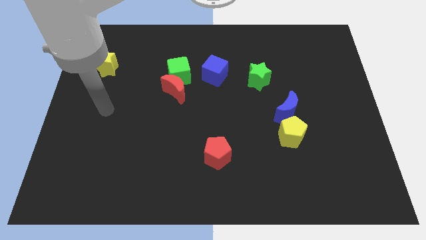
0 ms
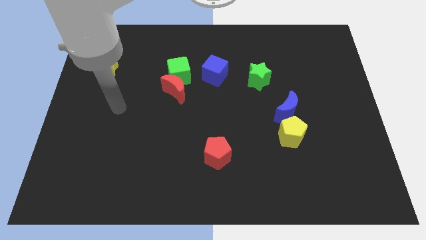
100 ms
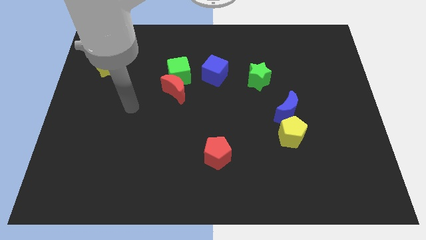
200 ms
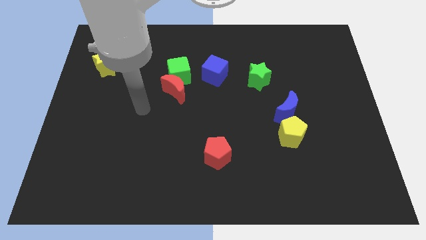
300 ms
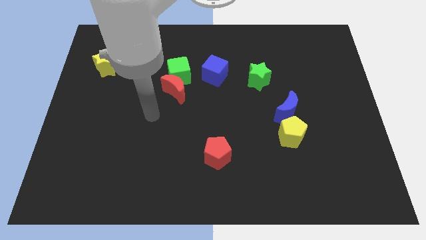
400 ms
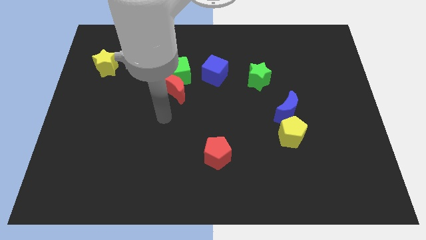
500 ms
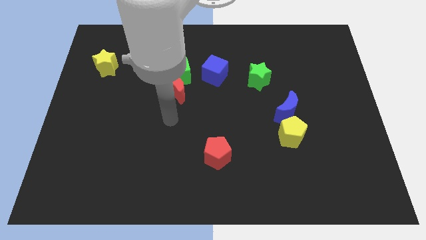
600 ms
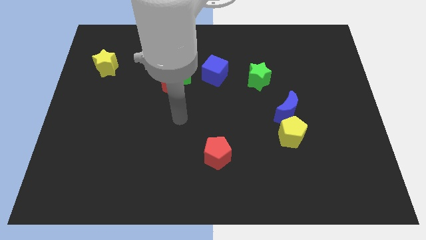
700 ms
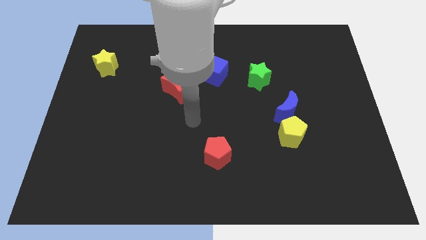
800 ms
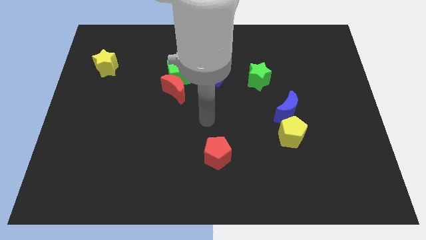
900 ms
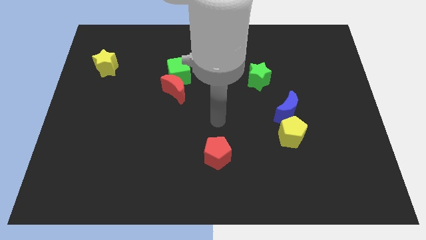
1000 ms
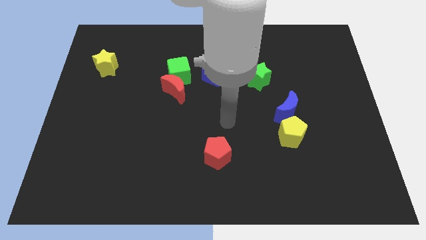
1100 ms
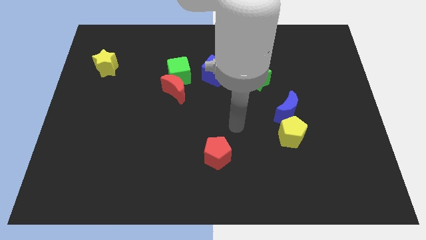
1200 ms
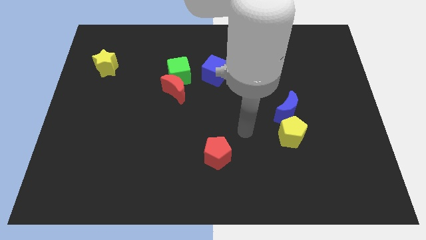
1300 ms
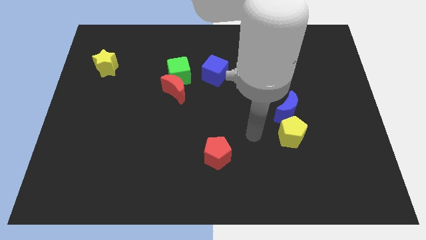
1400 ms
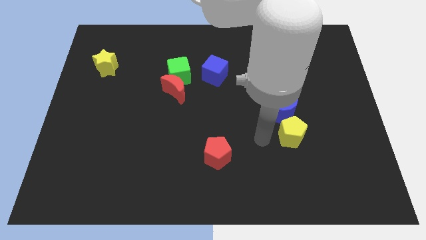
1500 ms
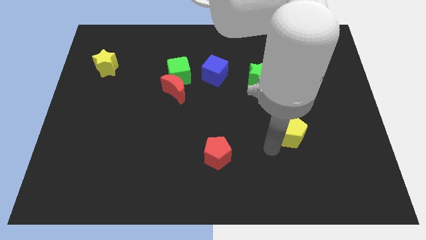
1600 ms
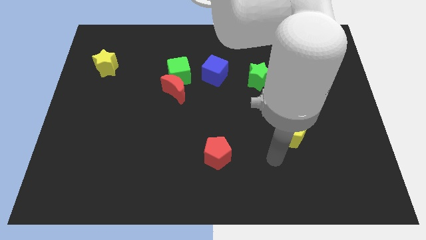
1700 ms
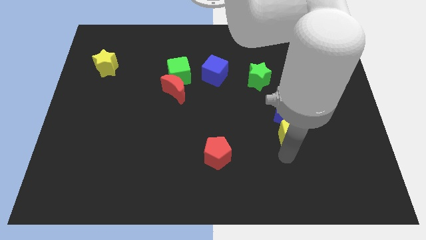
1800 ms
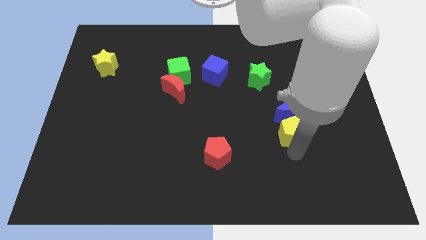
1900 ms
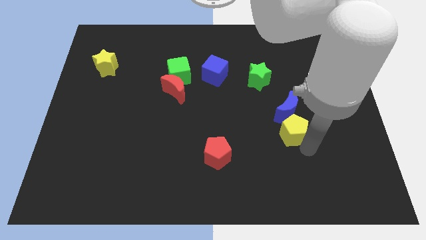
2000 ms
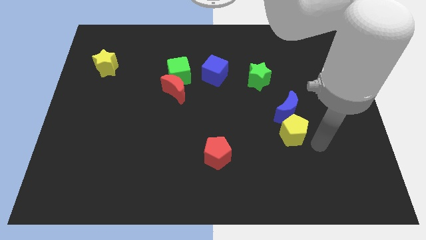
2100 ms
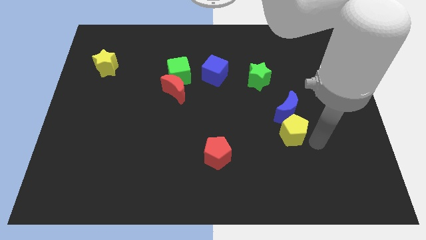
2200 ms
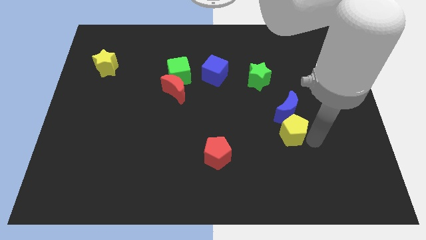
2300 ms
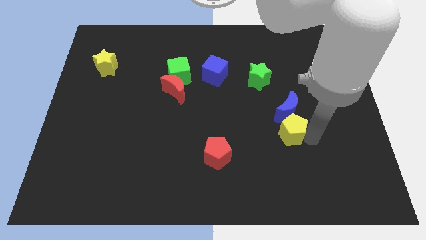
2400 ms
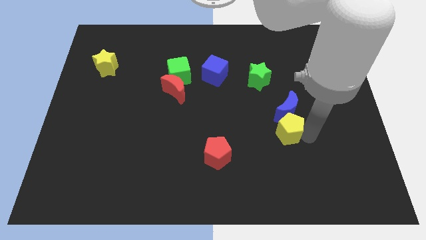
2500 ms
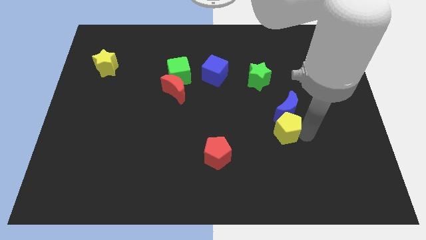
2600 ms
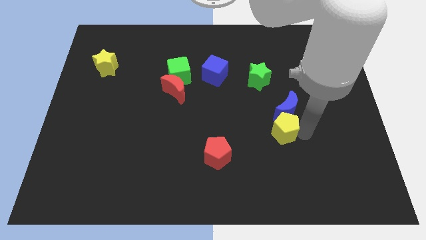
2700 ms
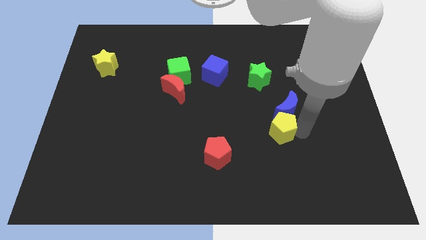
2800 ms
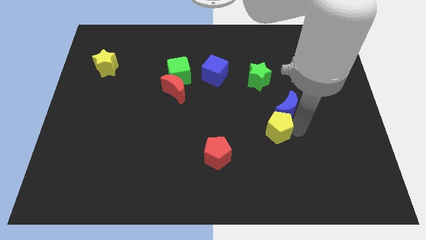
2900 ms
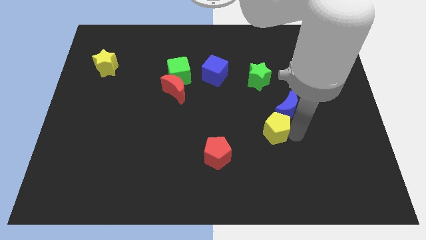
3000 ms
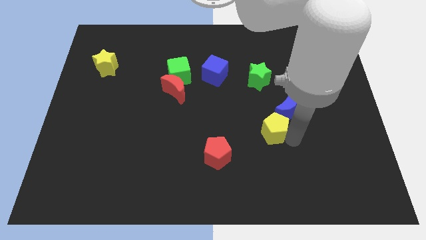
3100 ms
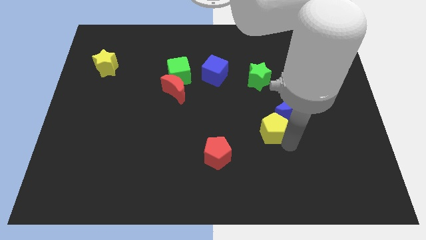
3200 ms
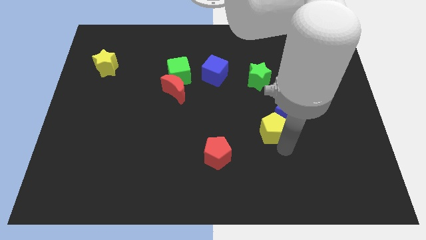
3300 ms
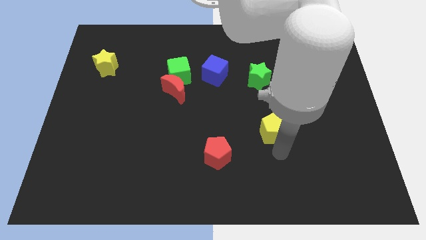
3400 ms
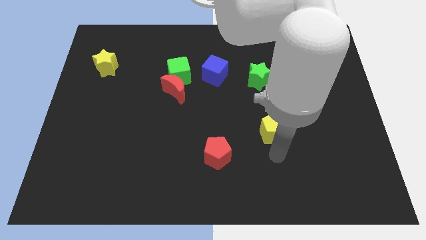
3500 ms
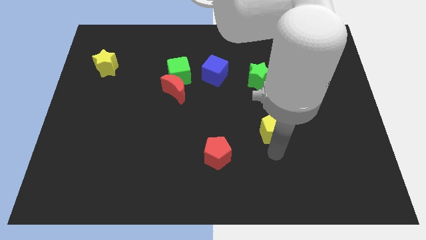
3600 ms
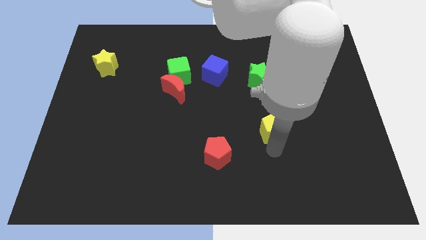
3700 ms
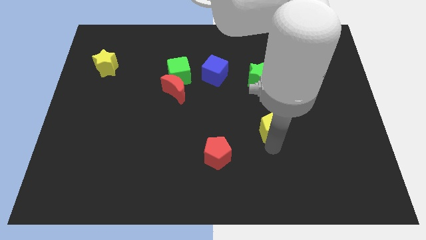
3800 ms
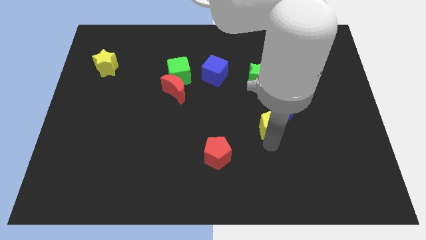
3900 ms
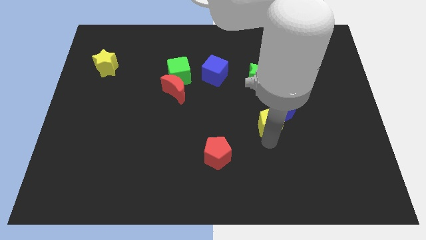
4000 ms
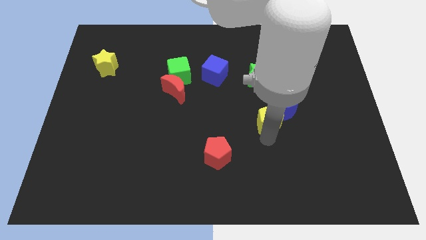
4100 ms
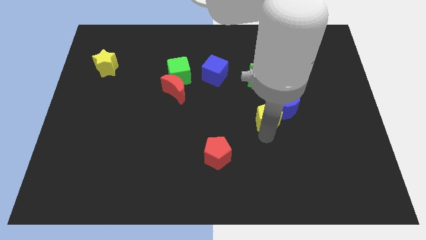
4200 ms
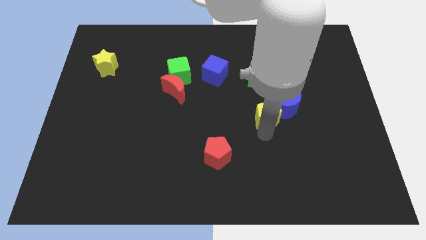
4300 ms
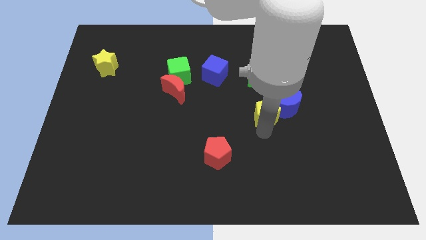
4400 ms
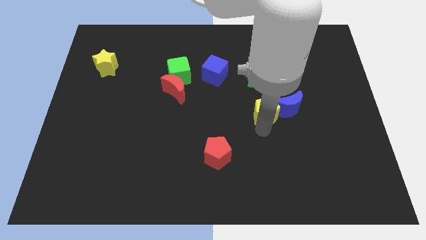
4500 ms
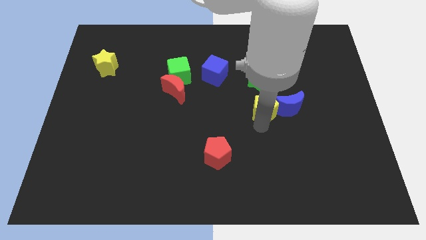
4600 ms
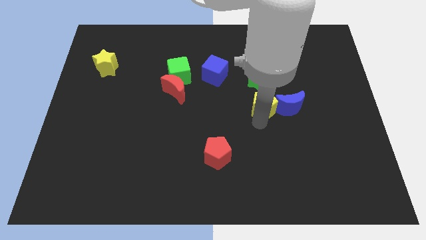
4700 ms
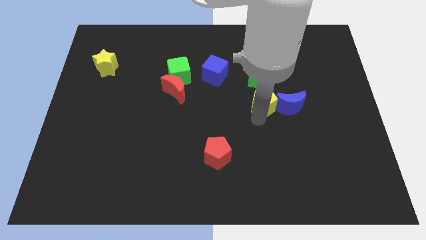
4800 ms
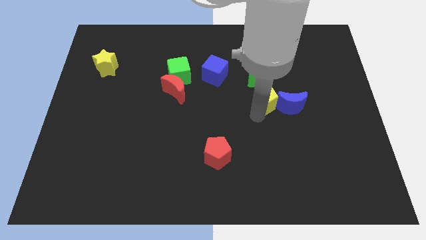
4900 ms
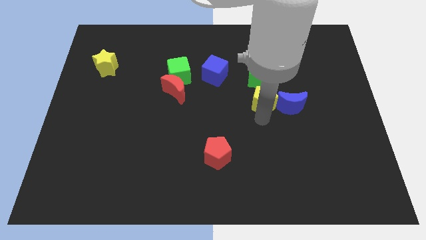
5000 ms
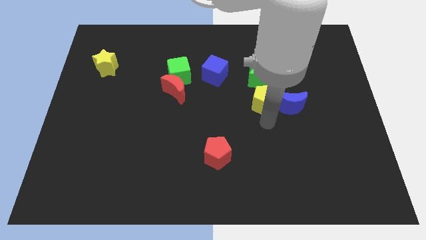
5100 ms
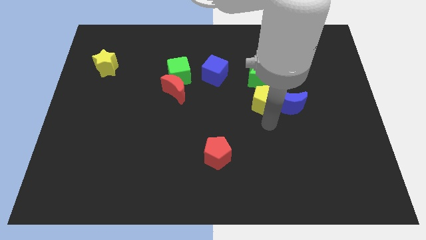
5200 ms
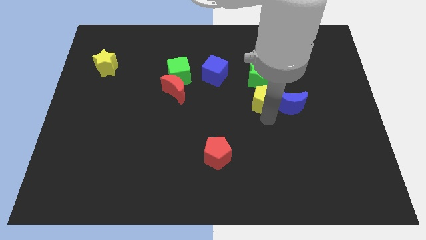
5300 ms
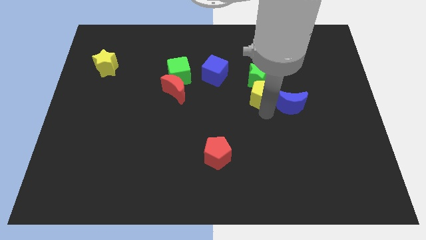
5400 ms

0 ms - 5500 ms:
move the yellow pentagon close to the green star

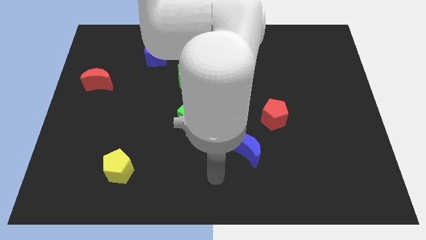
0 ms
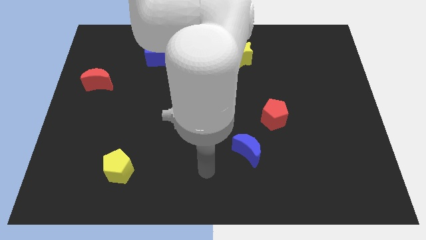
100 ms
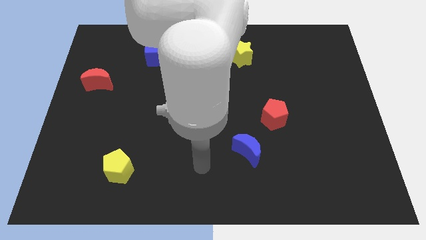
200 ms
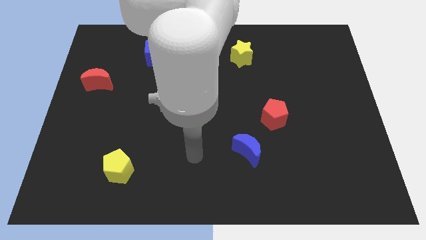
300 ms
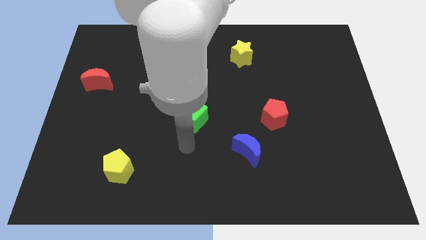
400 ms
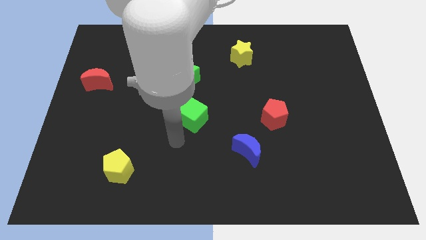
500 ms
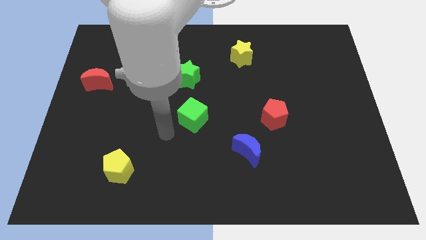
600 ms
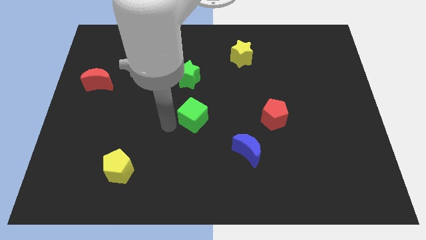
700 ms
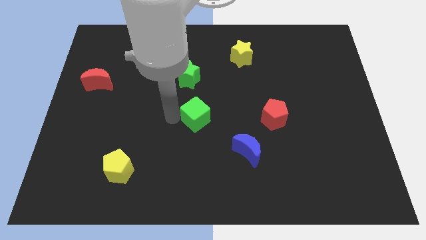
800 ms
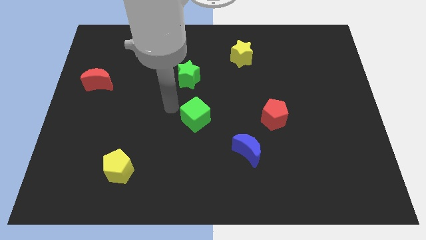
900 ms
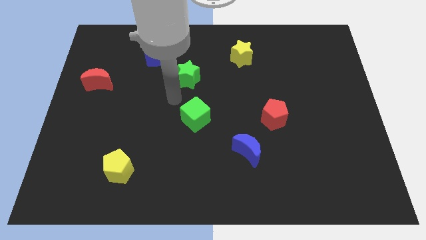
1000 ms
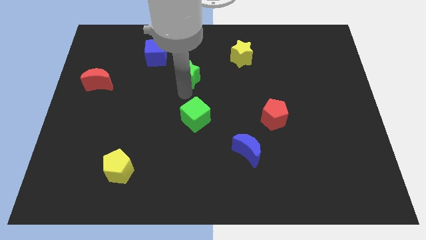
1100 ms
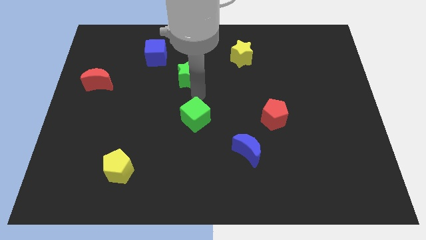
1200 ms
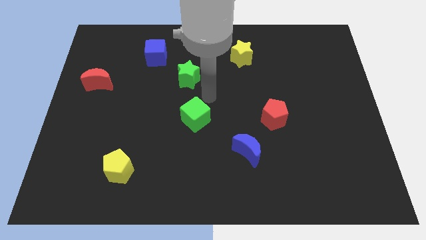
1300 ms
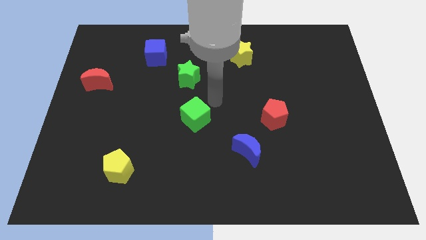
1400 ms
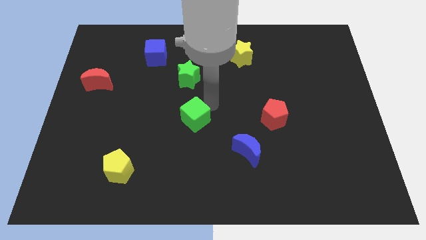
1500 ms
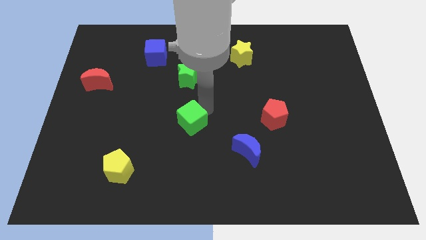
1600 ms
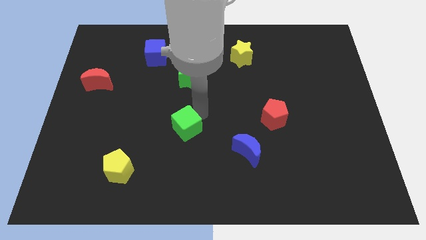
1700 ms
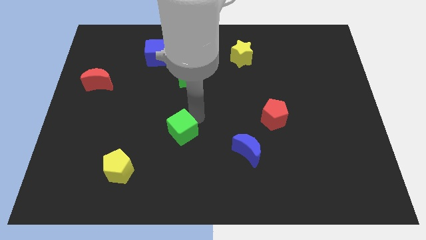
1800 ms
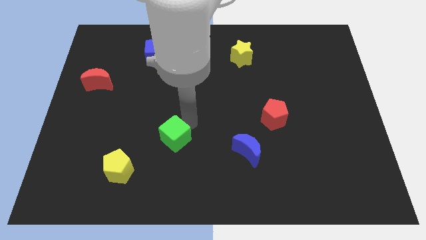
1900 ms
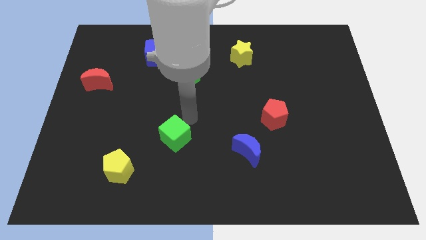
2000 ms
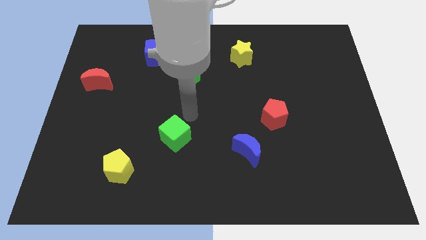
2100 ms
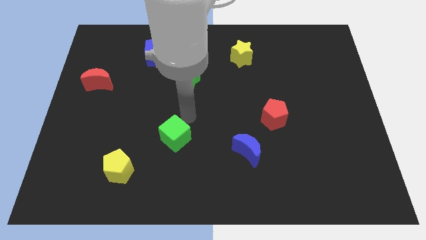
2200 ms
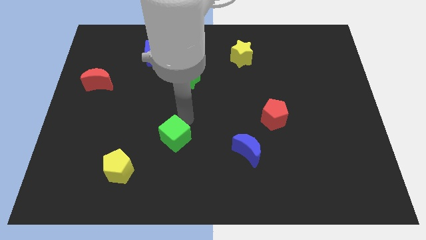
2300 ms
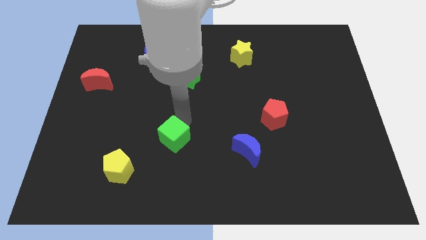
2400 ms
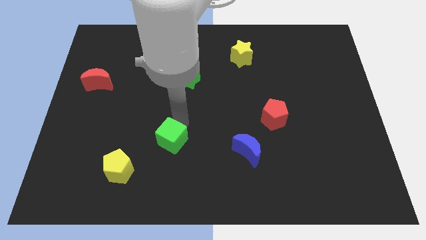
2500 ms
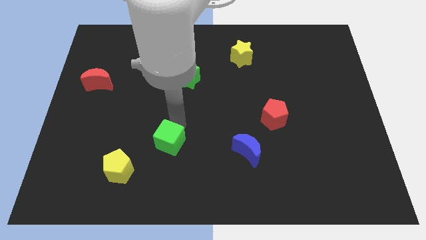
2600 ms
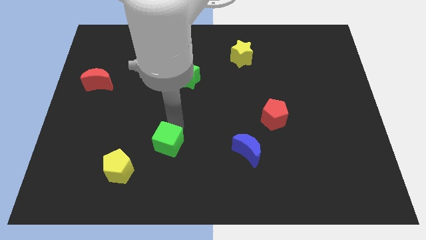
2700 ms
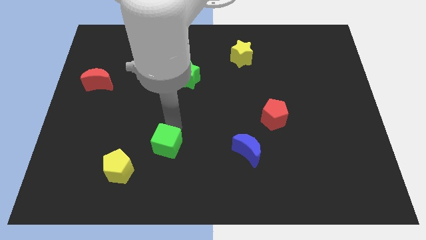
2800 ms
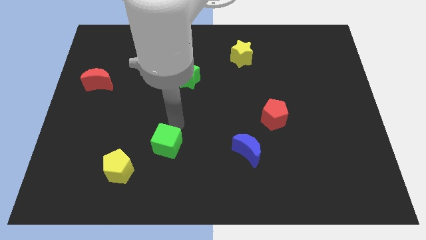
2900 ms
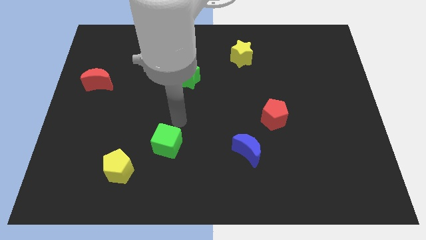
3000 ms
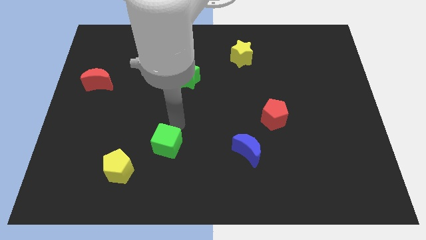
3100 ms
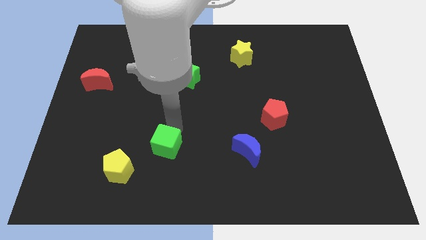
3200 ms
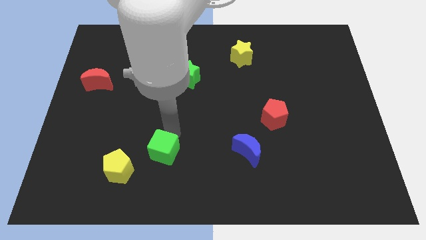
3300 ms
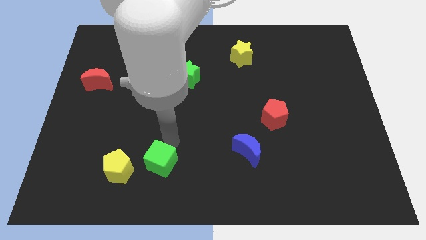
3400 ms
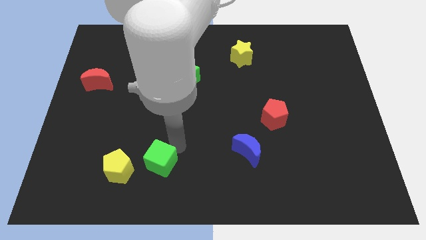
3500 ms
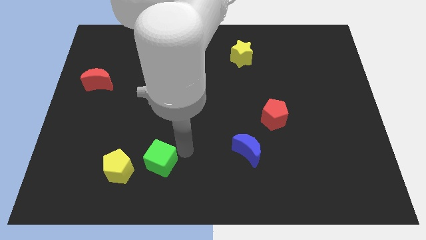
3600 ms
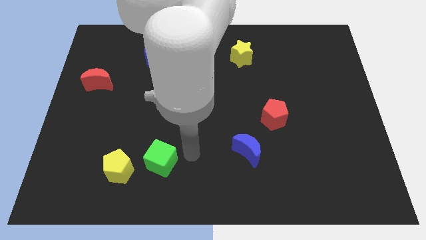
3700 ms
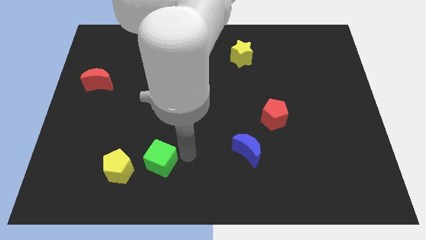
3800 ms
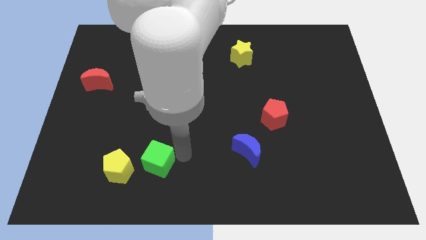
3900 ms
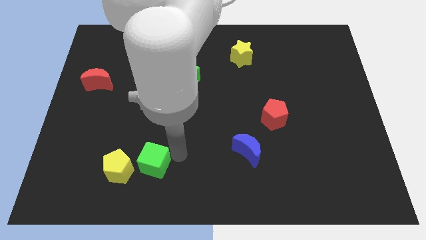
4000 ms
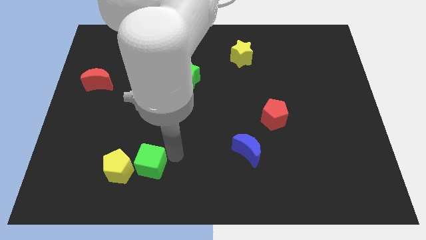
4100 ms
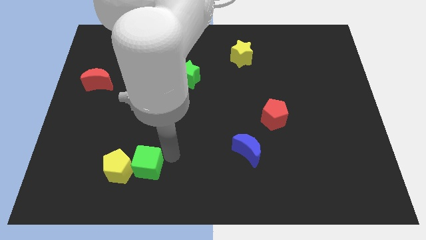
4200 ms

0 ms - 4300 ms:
move the green cube close to the yellow pentagon
